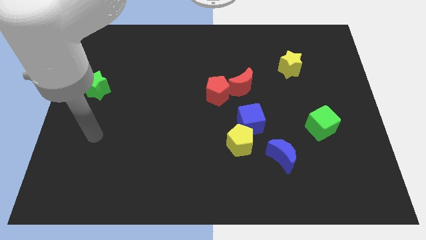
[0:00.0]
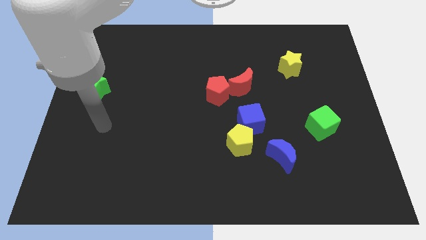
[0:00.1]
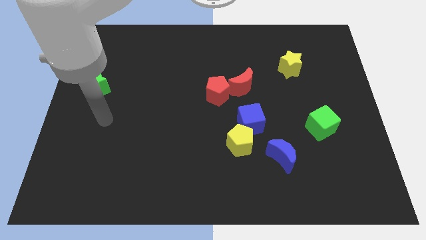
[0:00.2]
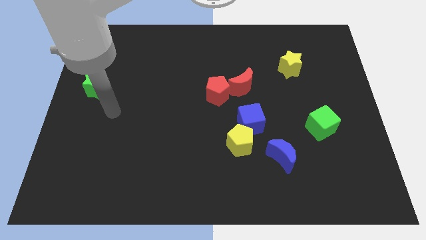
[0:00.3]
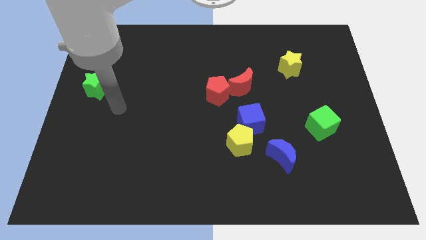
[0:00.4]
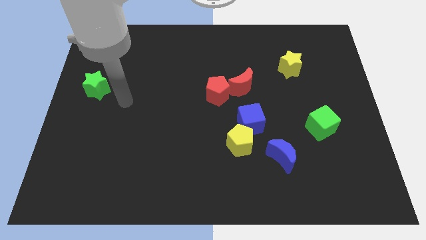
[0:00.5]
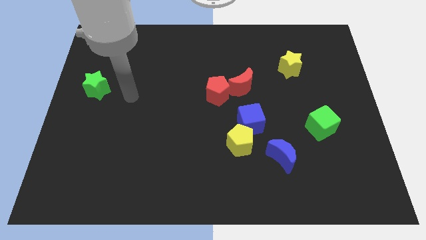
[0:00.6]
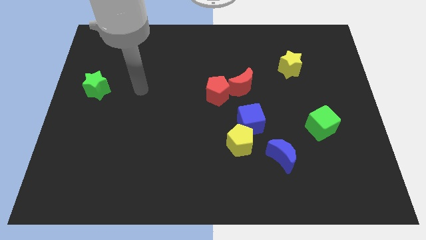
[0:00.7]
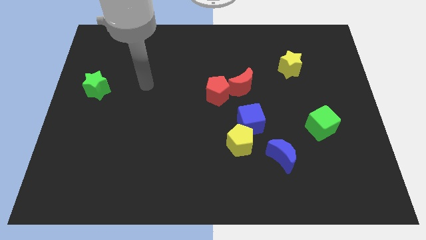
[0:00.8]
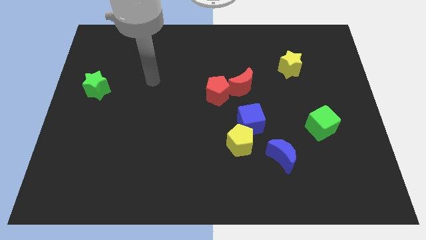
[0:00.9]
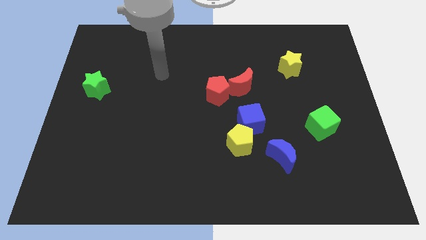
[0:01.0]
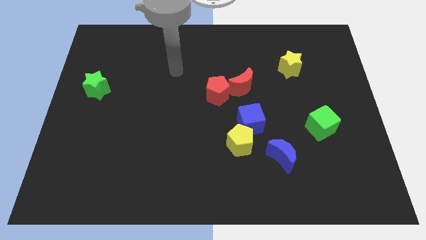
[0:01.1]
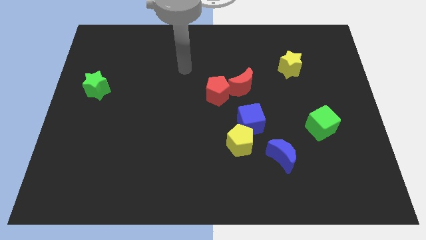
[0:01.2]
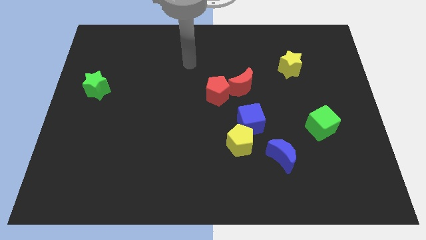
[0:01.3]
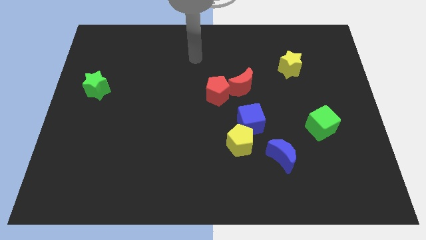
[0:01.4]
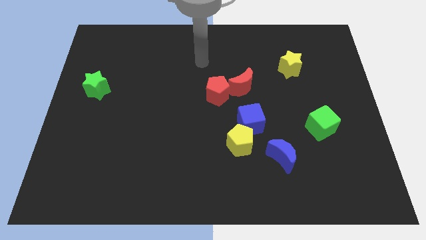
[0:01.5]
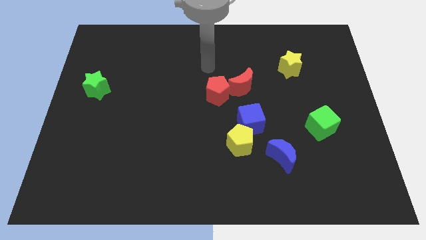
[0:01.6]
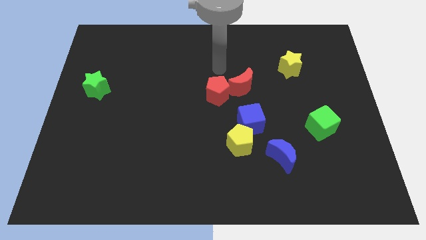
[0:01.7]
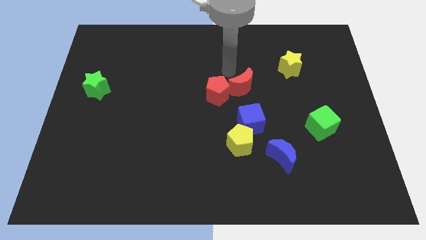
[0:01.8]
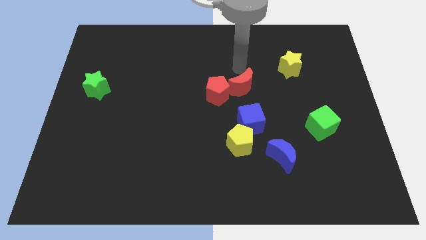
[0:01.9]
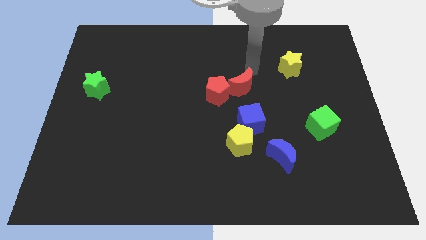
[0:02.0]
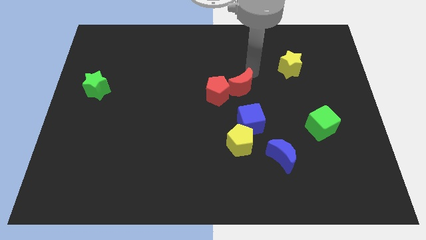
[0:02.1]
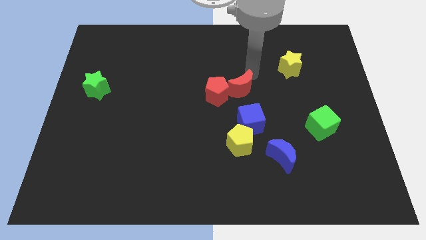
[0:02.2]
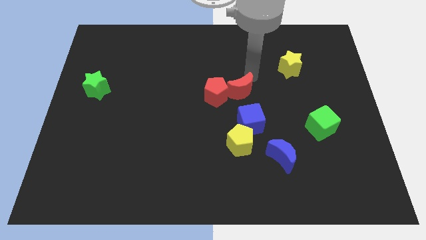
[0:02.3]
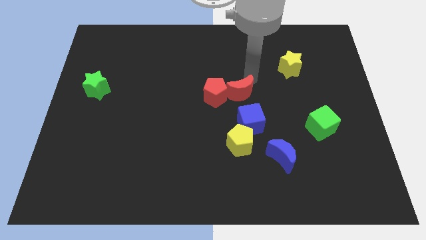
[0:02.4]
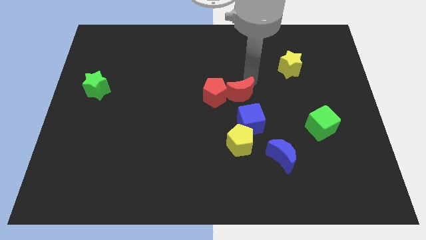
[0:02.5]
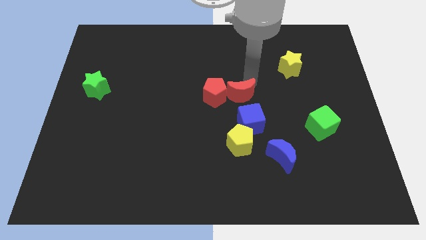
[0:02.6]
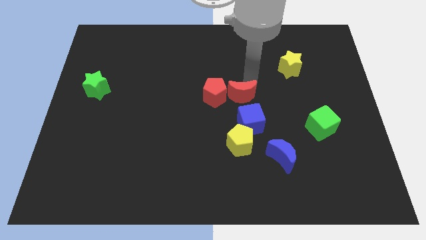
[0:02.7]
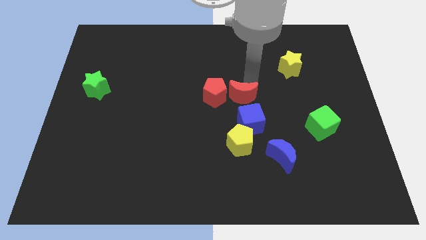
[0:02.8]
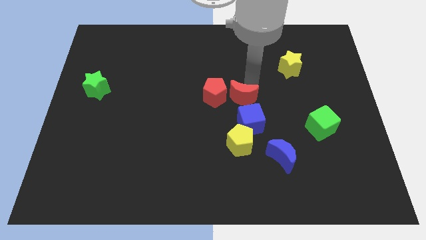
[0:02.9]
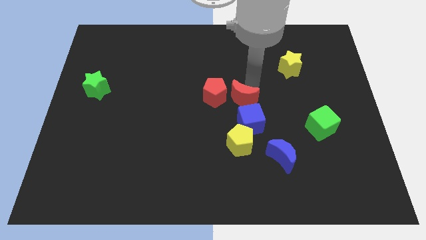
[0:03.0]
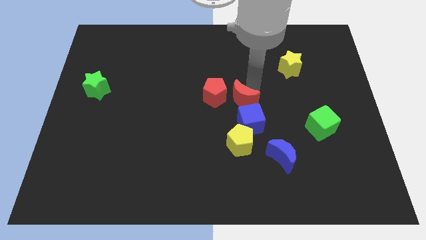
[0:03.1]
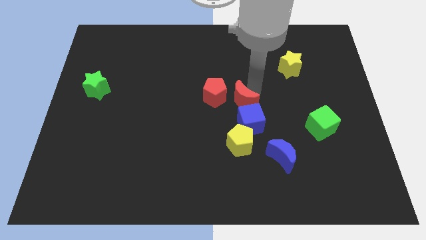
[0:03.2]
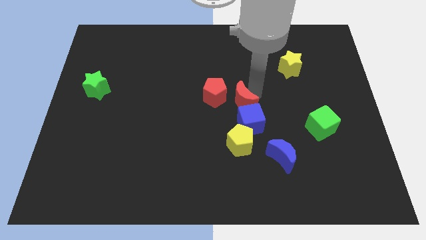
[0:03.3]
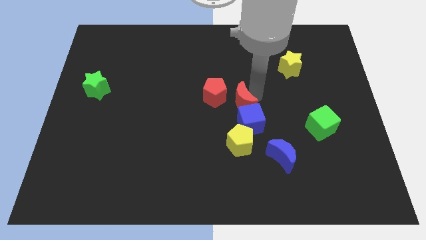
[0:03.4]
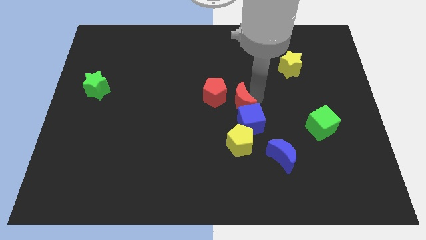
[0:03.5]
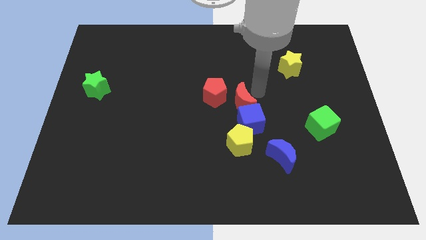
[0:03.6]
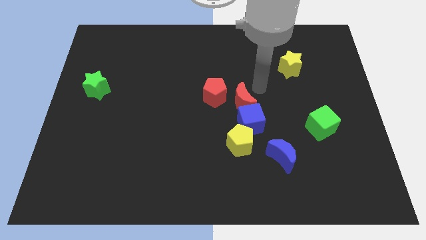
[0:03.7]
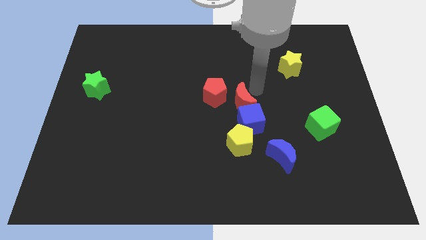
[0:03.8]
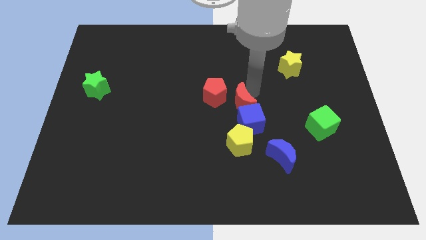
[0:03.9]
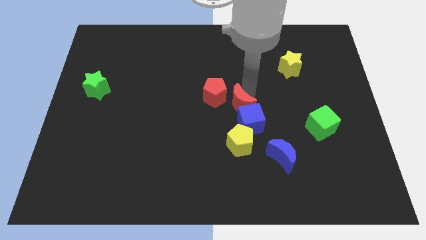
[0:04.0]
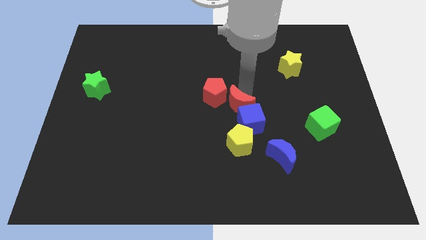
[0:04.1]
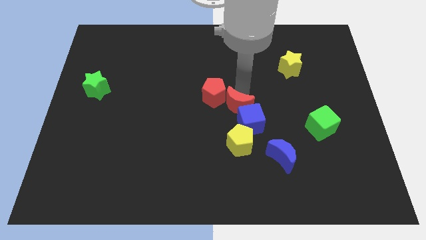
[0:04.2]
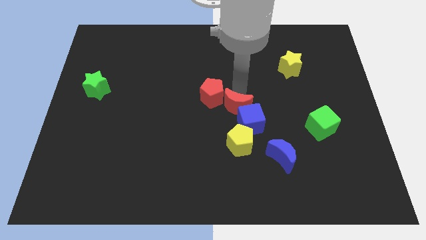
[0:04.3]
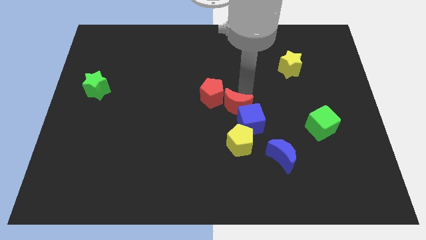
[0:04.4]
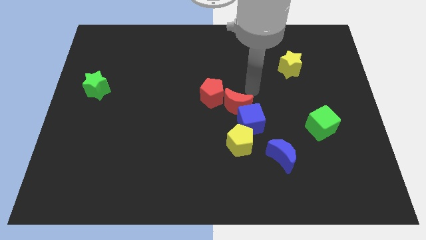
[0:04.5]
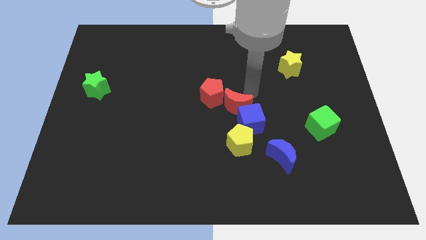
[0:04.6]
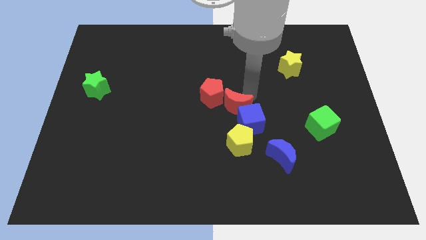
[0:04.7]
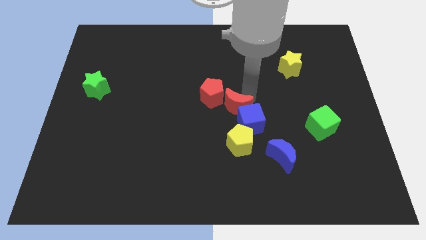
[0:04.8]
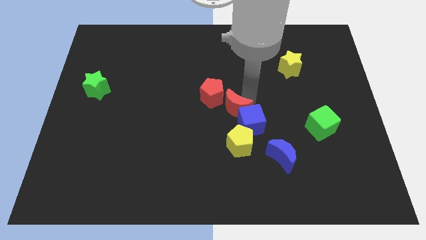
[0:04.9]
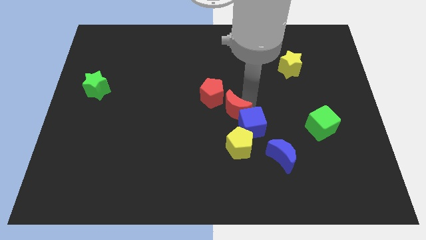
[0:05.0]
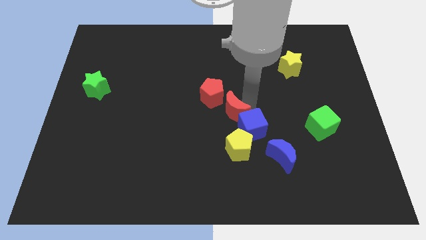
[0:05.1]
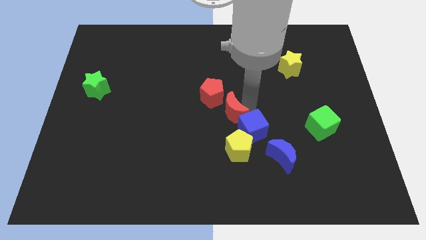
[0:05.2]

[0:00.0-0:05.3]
move the red moon to the bottom side of the red pentagon

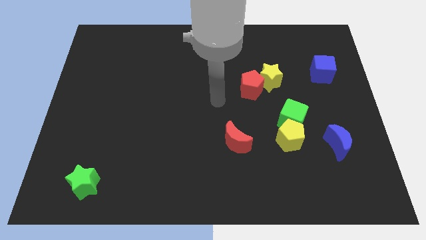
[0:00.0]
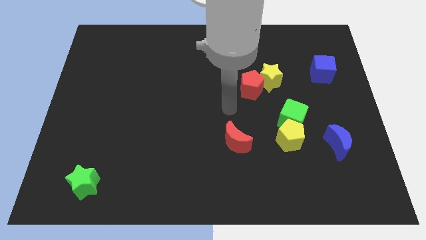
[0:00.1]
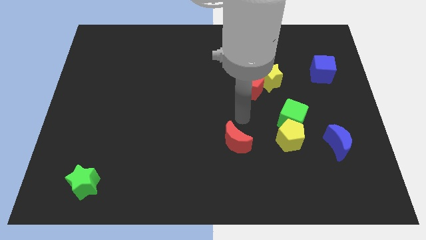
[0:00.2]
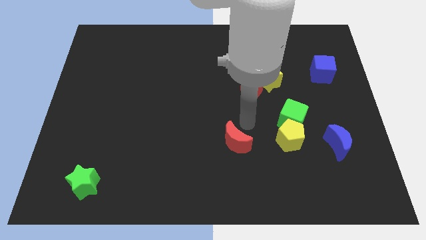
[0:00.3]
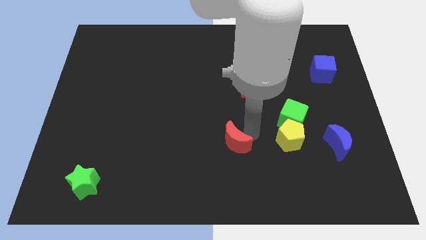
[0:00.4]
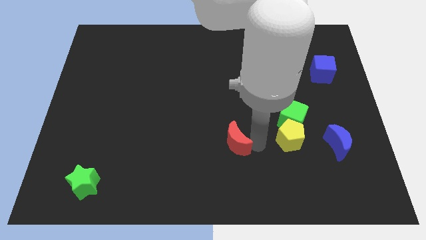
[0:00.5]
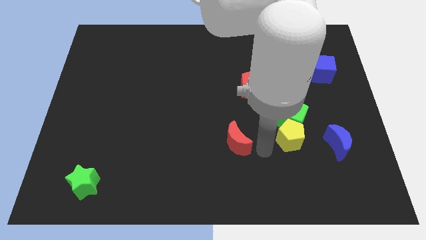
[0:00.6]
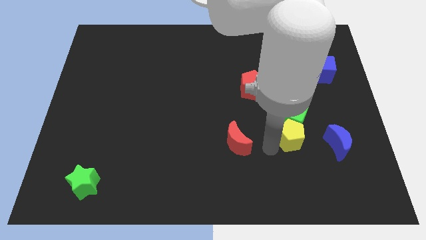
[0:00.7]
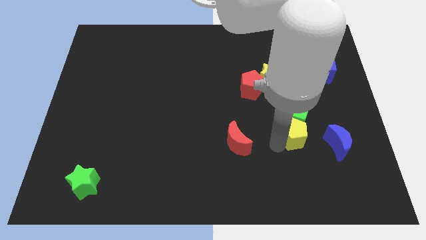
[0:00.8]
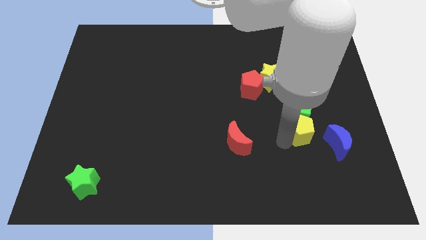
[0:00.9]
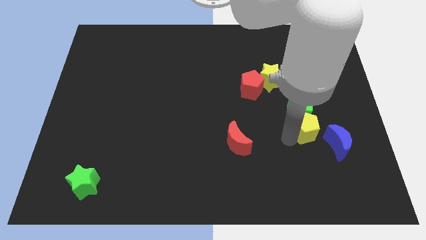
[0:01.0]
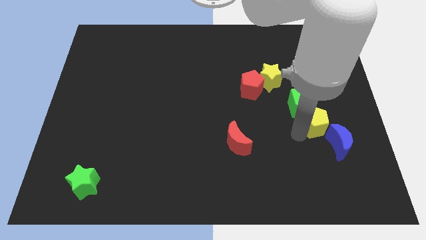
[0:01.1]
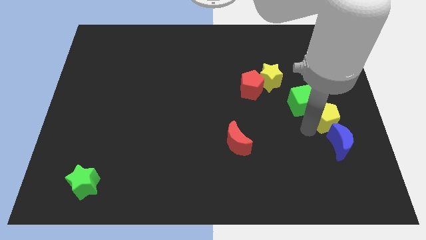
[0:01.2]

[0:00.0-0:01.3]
put the yellow pentagon right of the green cube
